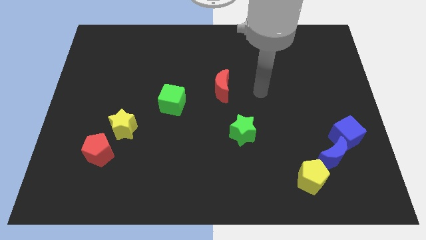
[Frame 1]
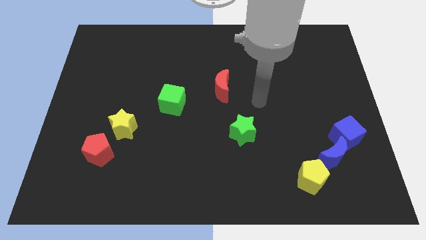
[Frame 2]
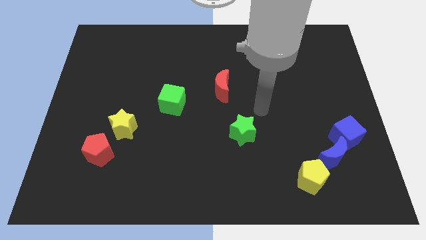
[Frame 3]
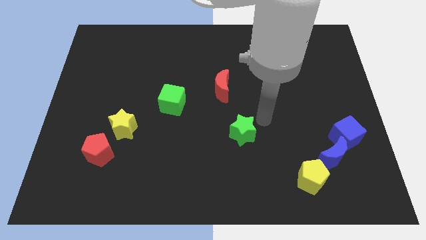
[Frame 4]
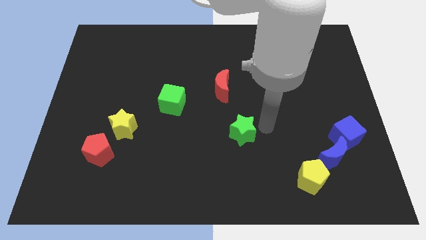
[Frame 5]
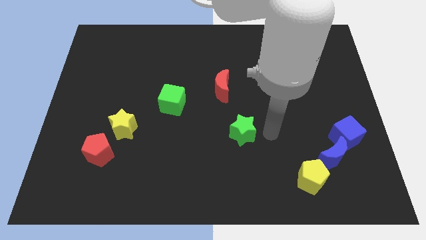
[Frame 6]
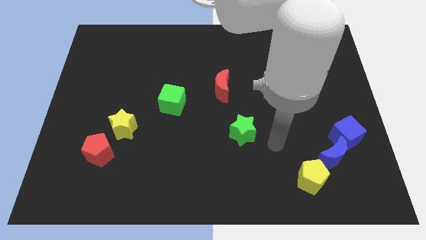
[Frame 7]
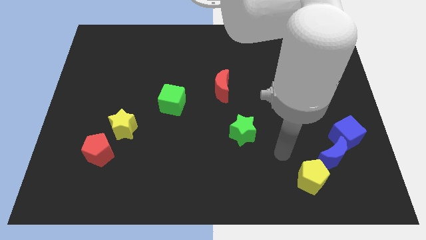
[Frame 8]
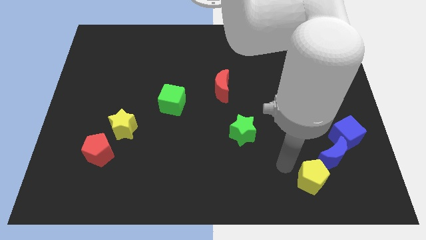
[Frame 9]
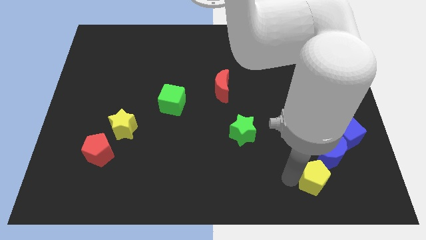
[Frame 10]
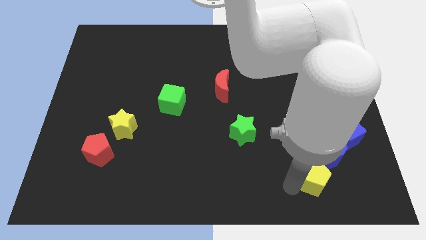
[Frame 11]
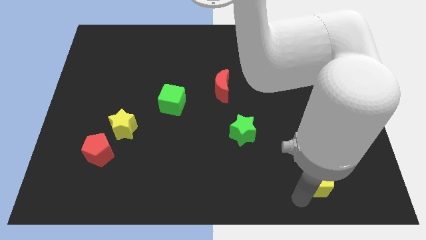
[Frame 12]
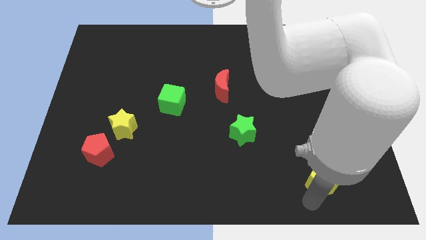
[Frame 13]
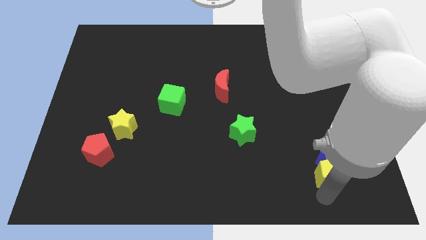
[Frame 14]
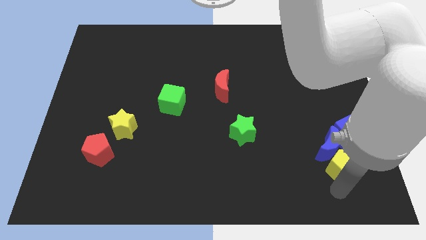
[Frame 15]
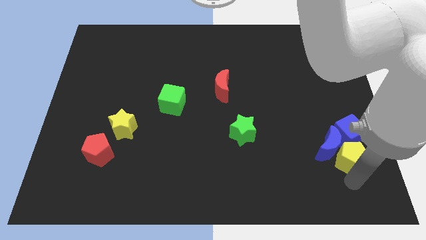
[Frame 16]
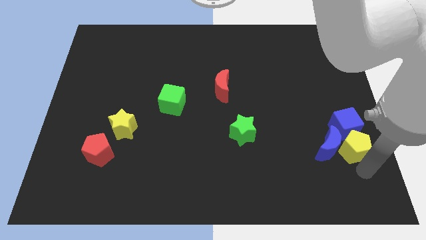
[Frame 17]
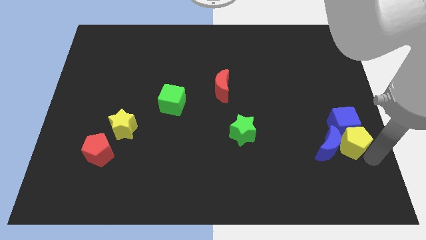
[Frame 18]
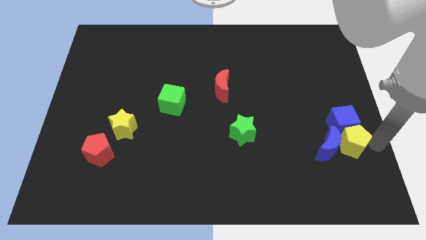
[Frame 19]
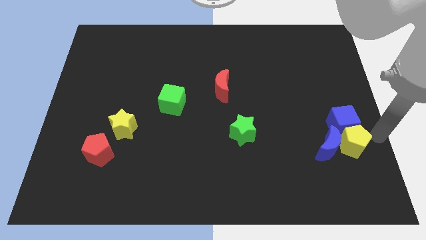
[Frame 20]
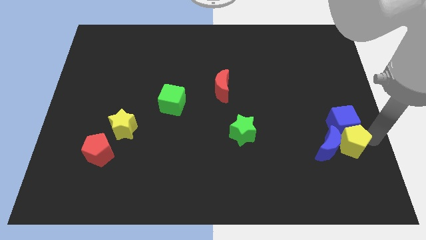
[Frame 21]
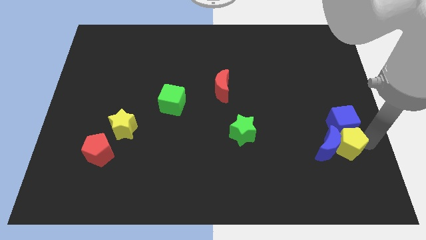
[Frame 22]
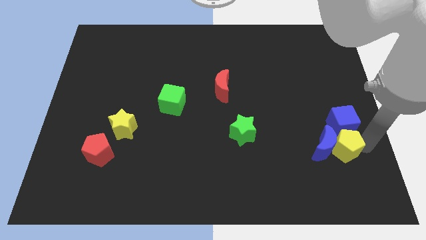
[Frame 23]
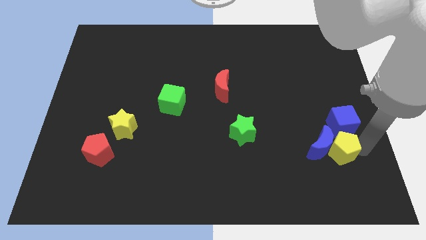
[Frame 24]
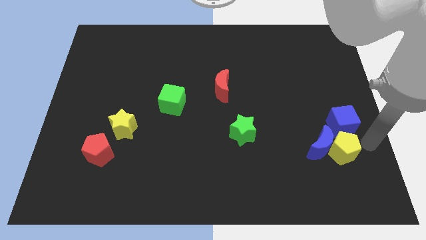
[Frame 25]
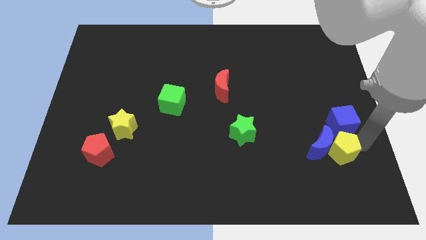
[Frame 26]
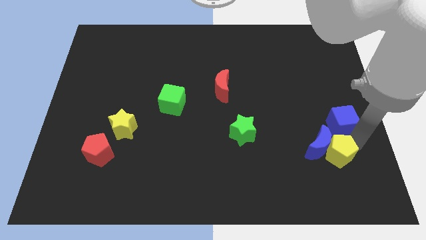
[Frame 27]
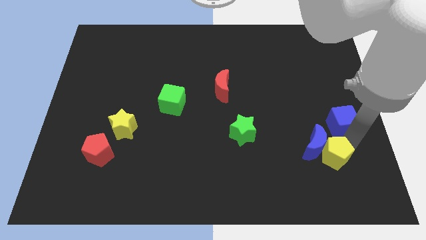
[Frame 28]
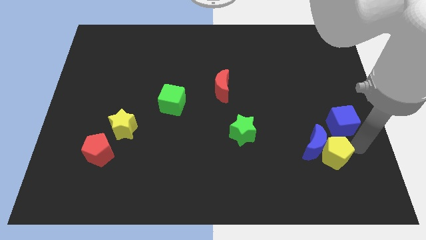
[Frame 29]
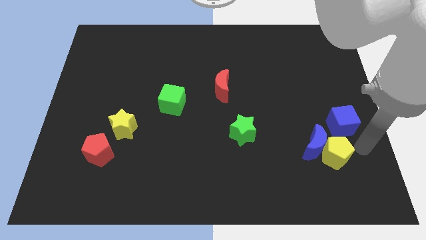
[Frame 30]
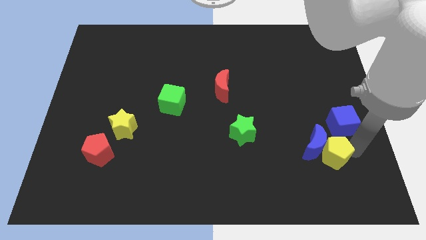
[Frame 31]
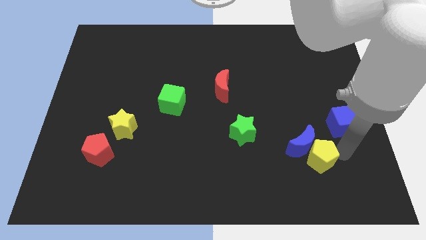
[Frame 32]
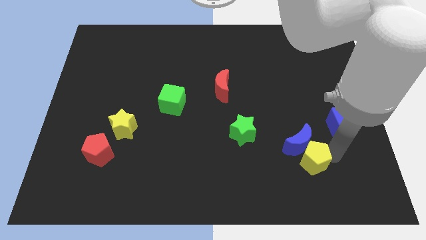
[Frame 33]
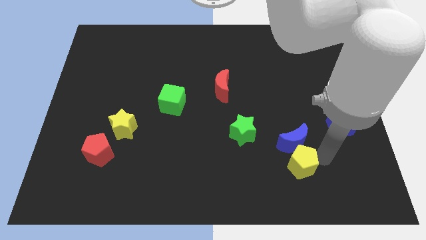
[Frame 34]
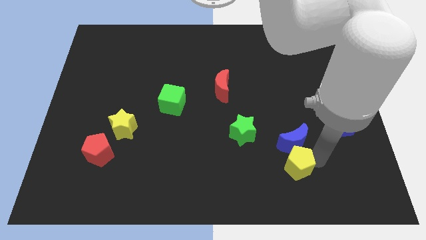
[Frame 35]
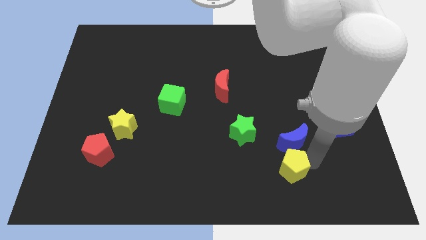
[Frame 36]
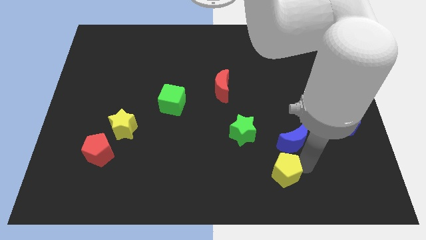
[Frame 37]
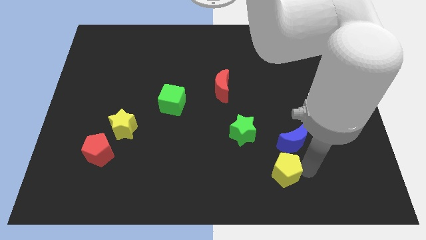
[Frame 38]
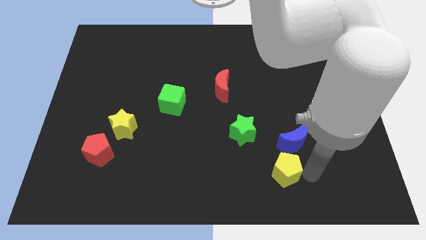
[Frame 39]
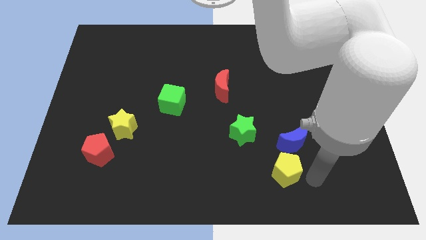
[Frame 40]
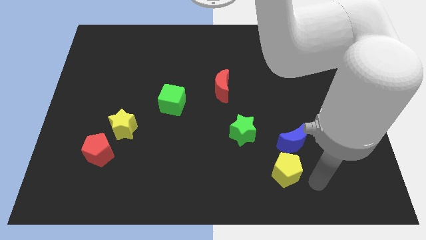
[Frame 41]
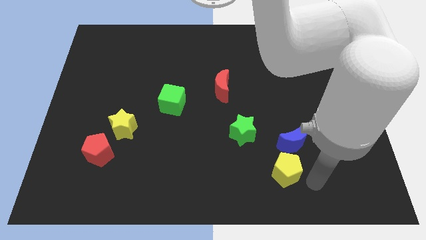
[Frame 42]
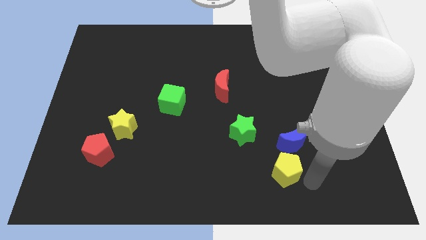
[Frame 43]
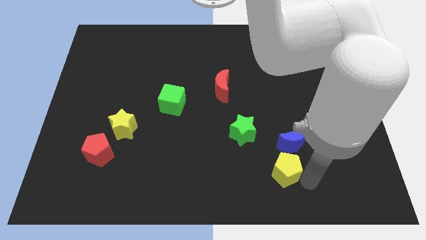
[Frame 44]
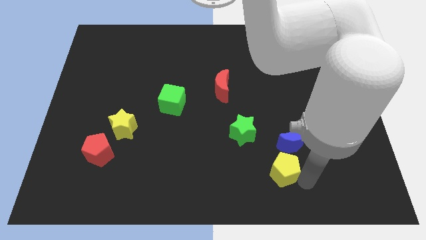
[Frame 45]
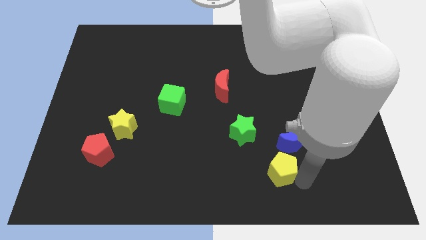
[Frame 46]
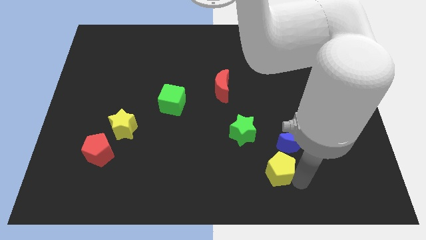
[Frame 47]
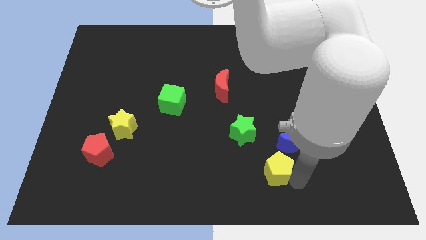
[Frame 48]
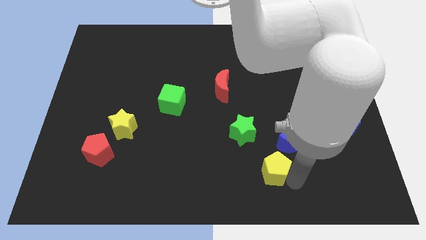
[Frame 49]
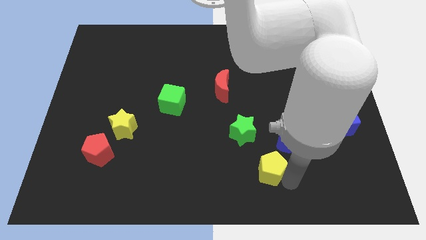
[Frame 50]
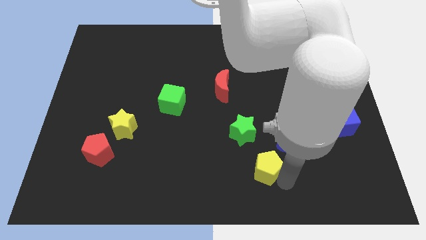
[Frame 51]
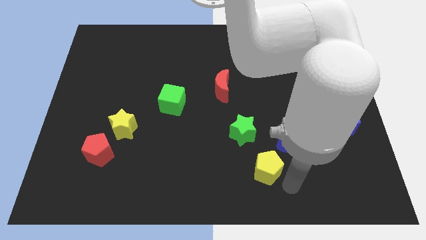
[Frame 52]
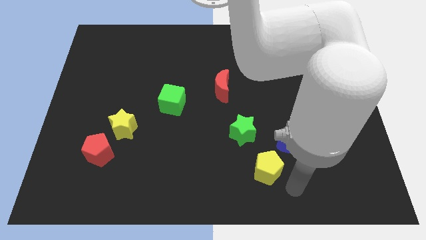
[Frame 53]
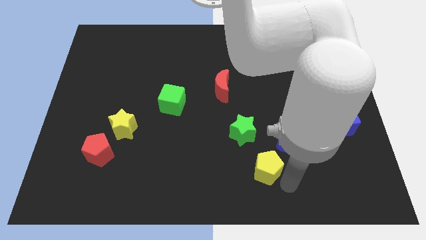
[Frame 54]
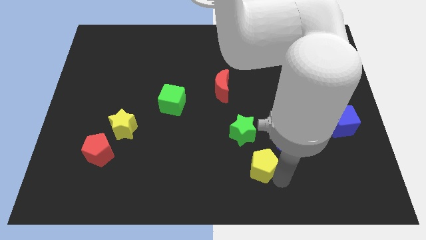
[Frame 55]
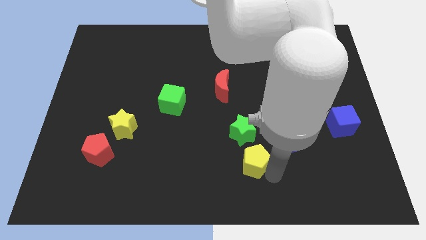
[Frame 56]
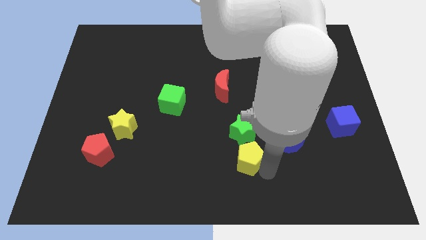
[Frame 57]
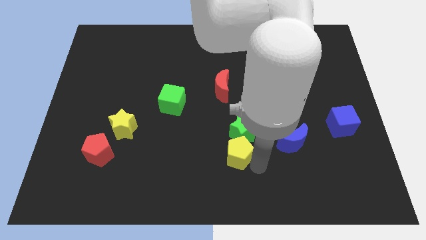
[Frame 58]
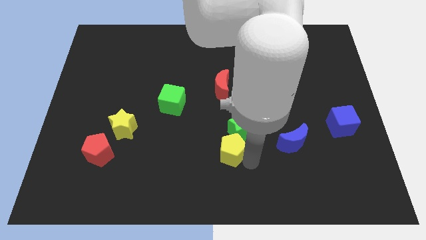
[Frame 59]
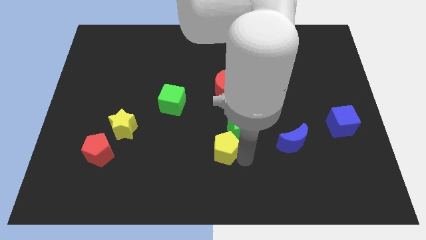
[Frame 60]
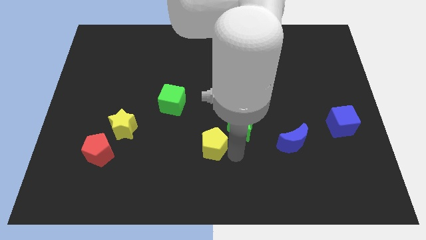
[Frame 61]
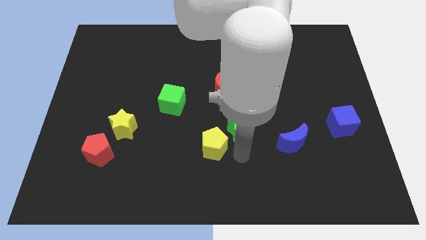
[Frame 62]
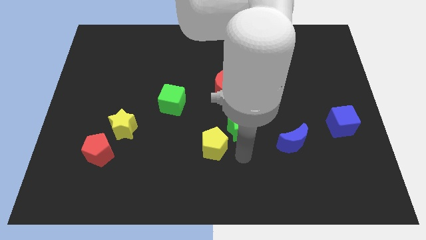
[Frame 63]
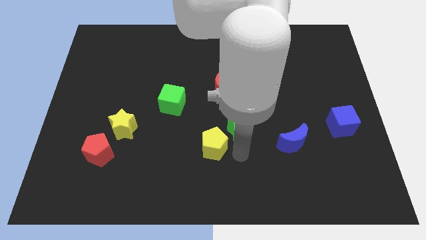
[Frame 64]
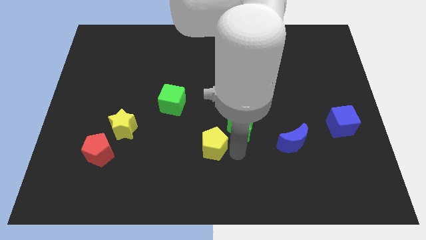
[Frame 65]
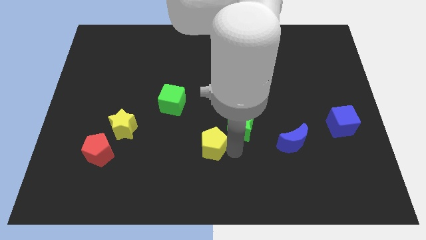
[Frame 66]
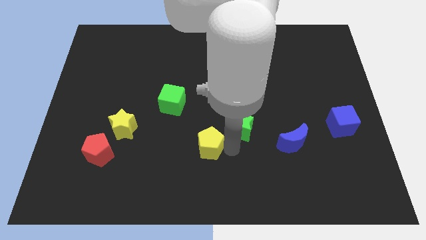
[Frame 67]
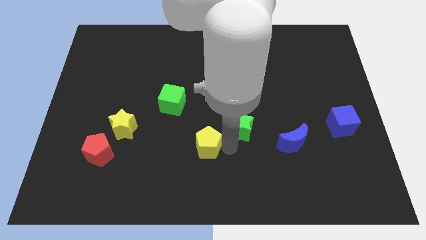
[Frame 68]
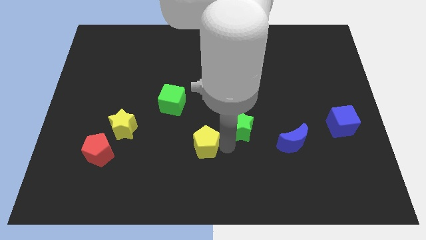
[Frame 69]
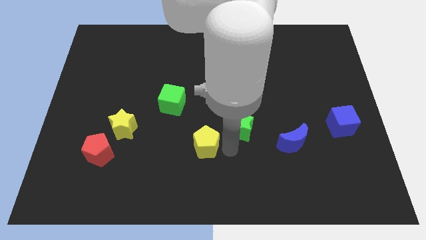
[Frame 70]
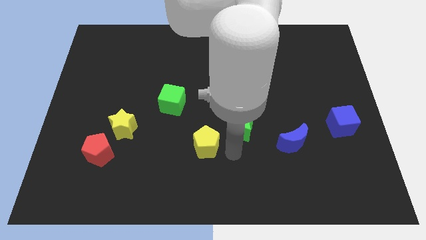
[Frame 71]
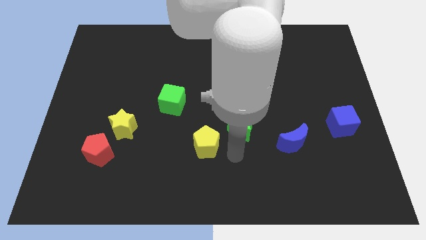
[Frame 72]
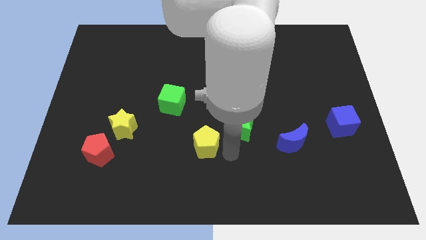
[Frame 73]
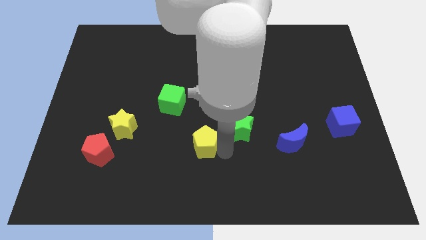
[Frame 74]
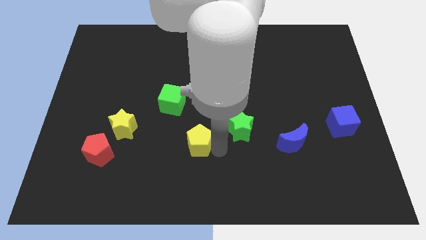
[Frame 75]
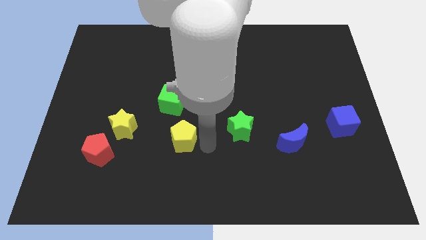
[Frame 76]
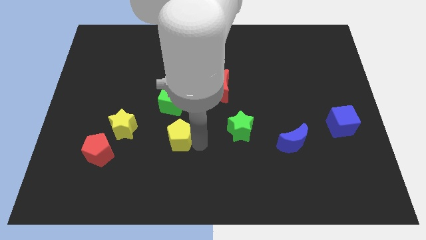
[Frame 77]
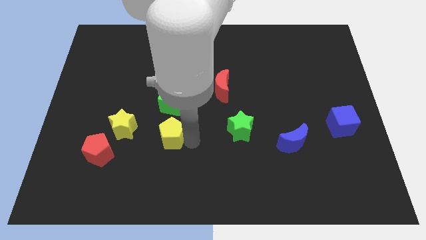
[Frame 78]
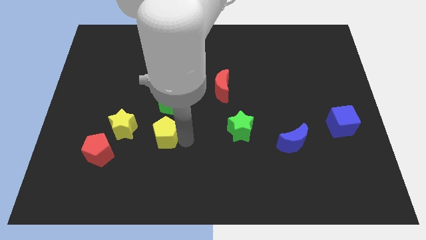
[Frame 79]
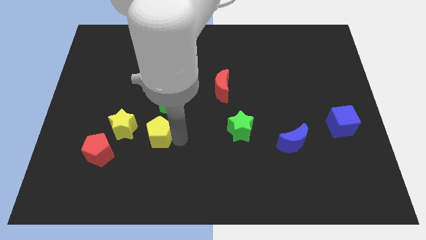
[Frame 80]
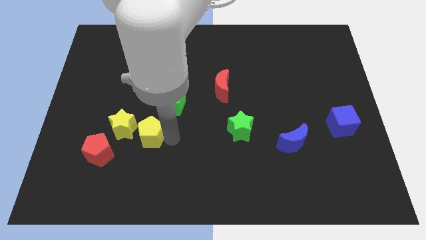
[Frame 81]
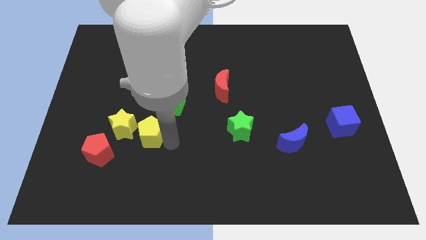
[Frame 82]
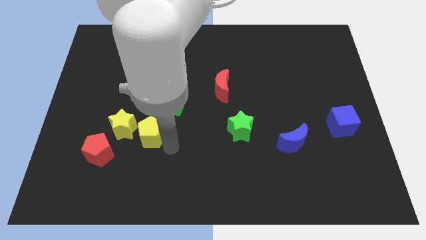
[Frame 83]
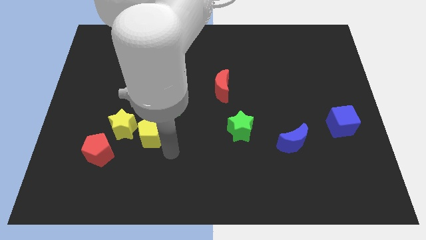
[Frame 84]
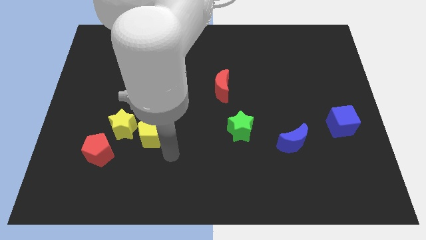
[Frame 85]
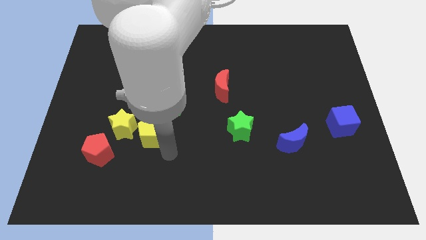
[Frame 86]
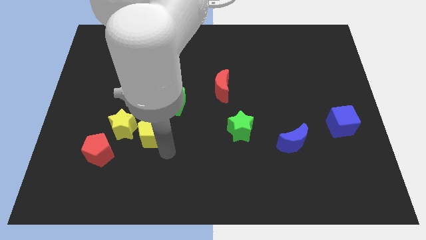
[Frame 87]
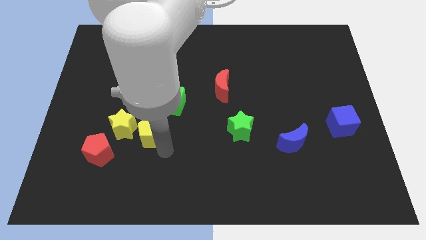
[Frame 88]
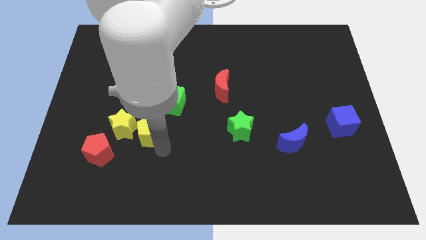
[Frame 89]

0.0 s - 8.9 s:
slide the yellow pentagon diagonally up and to the right of the red pentagon
